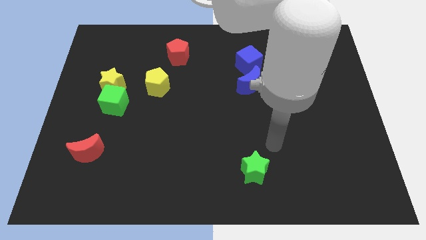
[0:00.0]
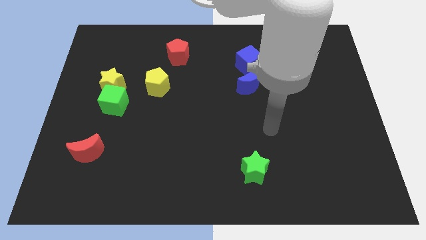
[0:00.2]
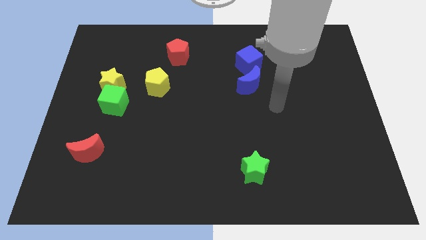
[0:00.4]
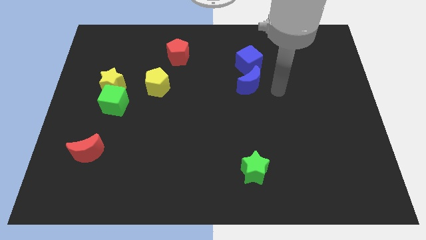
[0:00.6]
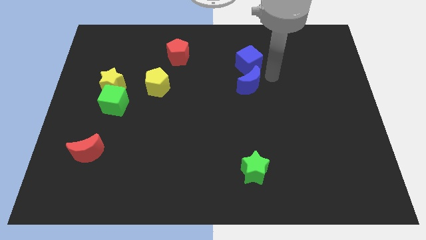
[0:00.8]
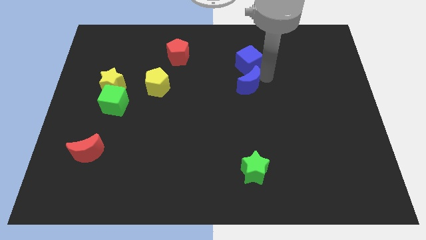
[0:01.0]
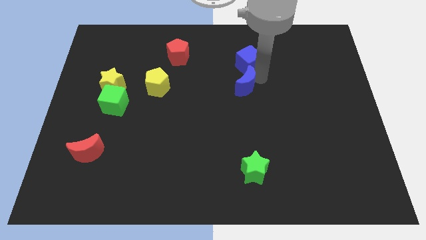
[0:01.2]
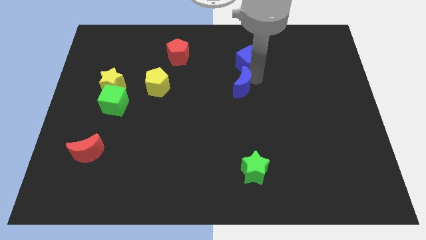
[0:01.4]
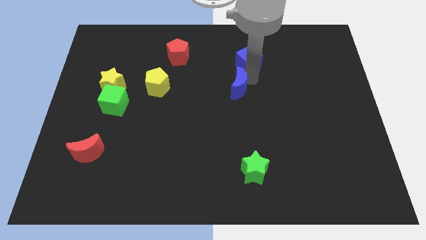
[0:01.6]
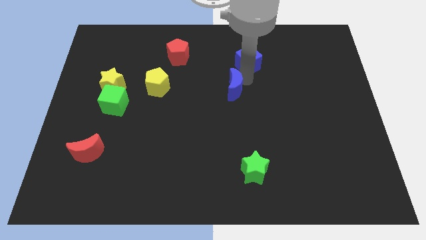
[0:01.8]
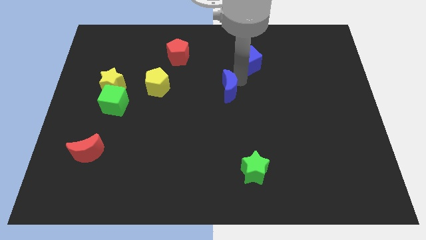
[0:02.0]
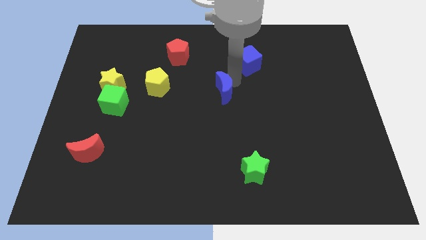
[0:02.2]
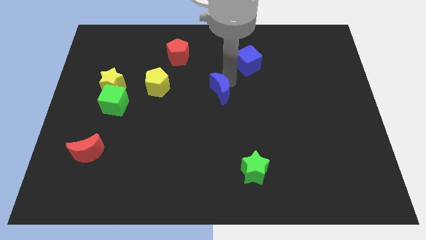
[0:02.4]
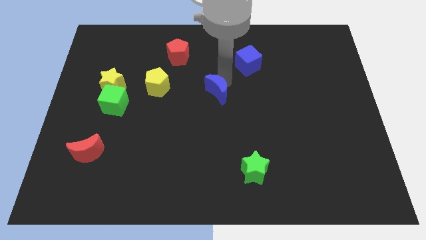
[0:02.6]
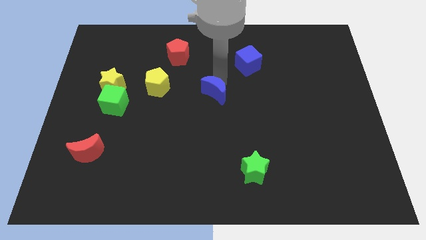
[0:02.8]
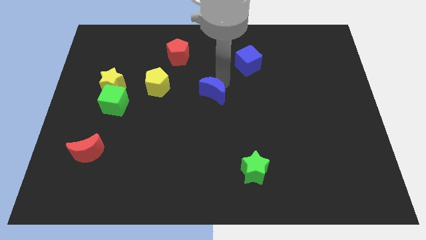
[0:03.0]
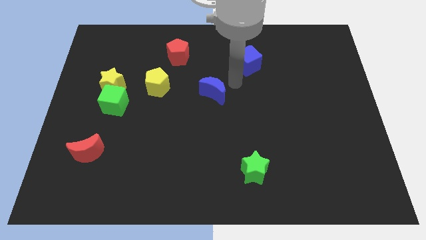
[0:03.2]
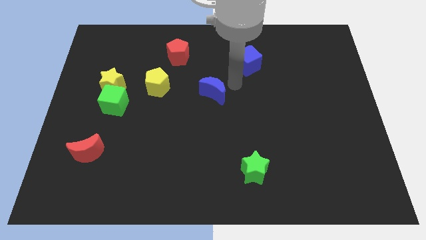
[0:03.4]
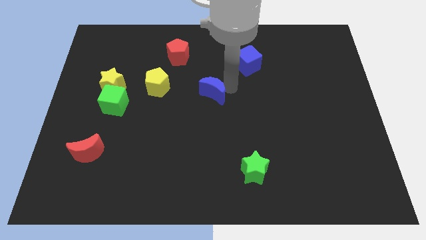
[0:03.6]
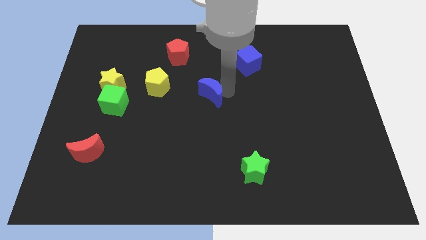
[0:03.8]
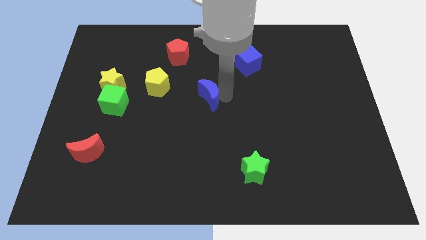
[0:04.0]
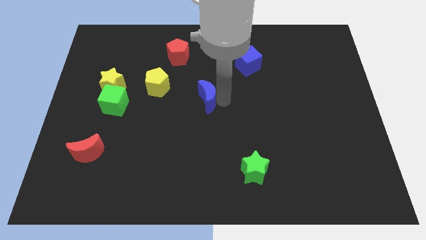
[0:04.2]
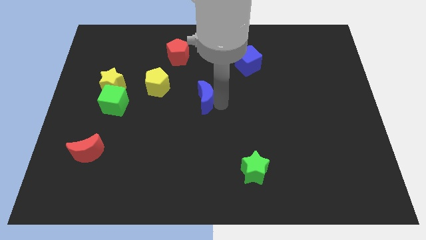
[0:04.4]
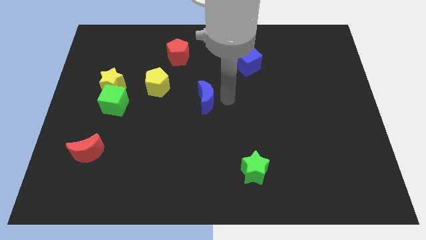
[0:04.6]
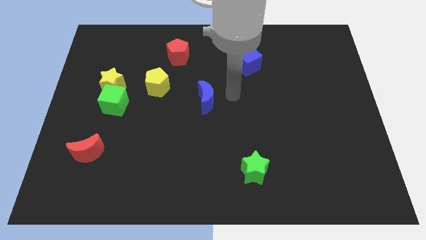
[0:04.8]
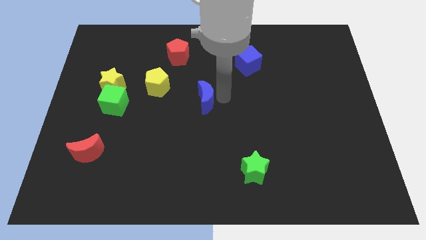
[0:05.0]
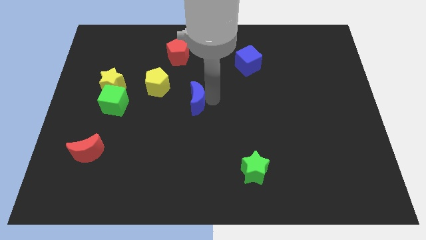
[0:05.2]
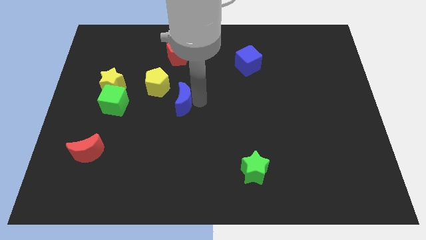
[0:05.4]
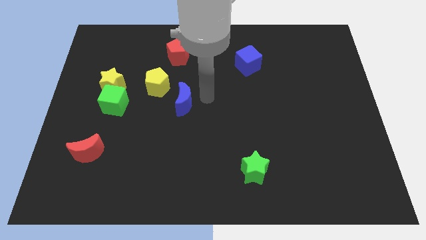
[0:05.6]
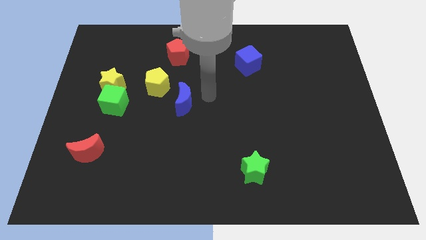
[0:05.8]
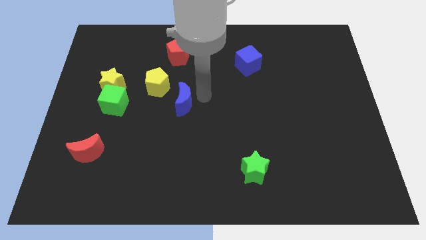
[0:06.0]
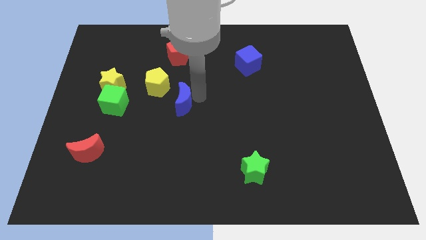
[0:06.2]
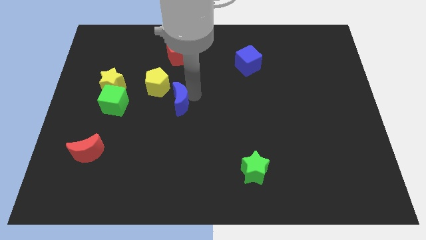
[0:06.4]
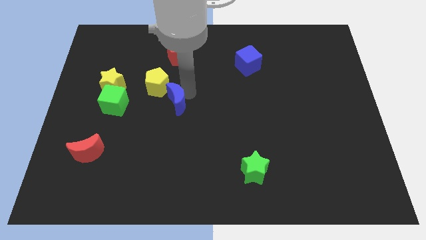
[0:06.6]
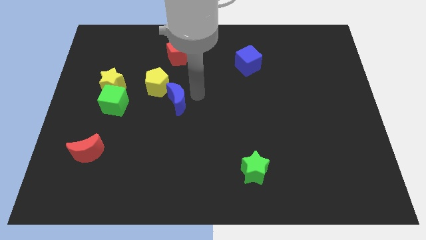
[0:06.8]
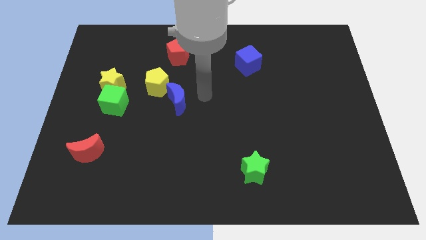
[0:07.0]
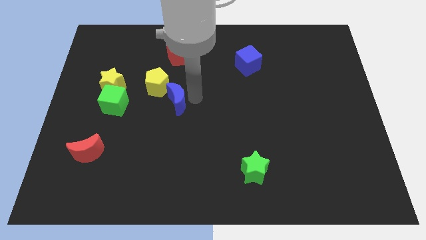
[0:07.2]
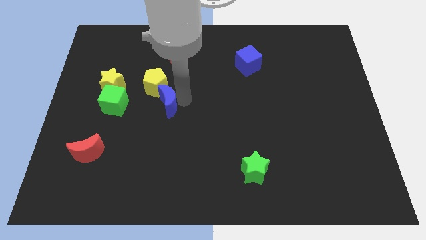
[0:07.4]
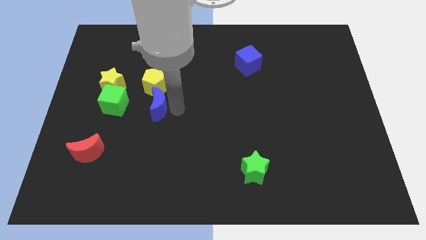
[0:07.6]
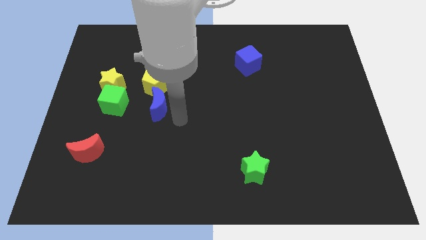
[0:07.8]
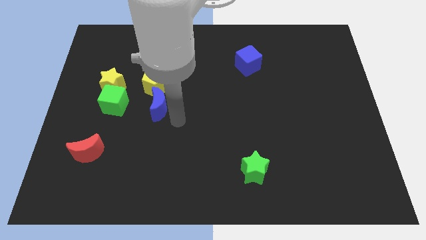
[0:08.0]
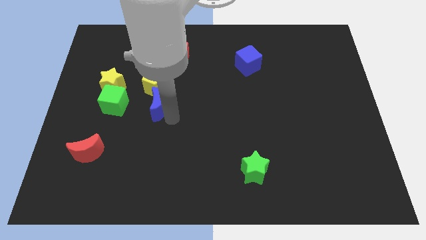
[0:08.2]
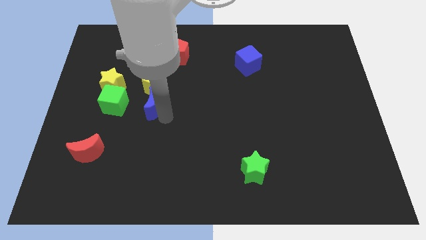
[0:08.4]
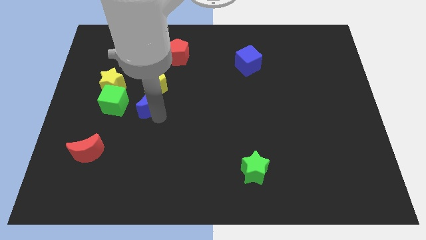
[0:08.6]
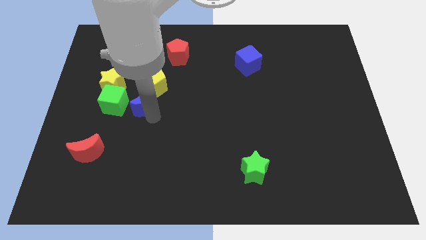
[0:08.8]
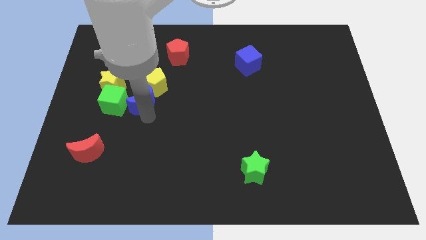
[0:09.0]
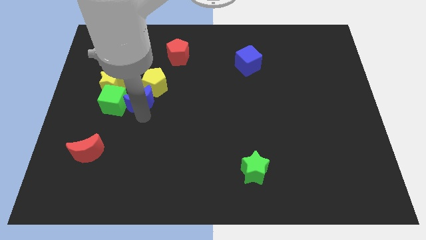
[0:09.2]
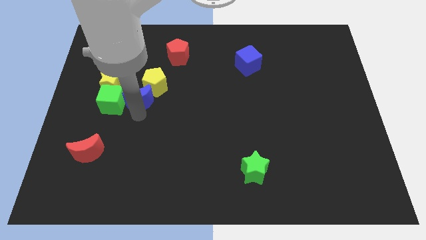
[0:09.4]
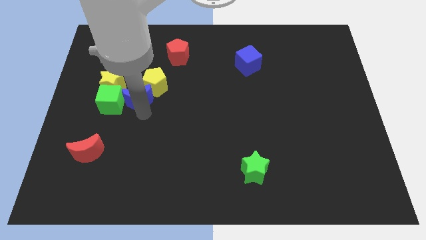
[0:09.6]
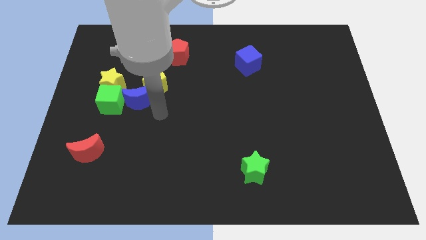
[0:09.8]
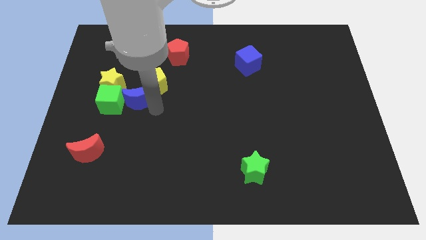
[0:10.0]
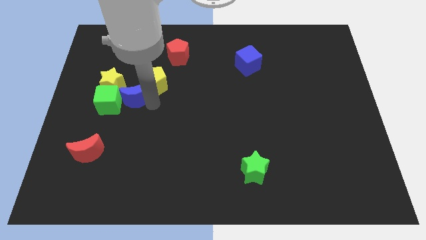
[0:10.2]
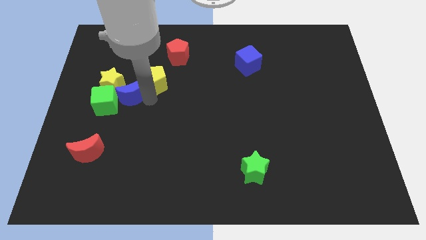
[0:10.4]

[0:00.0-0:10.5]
put the blue moon next to the yellow star

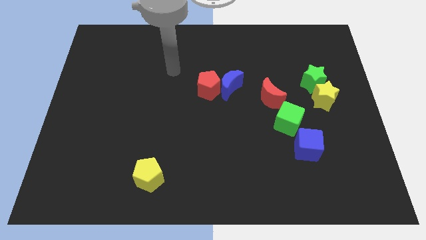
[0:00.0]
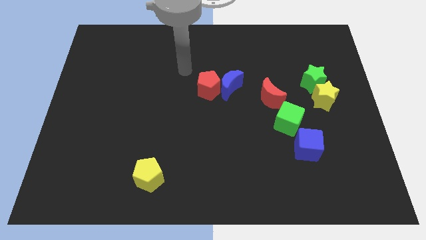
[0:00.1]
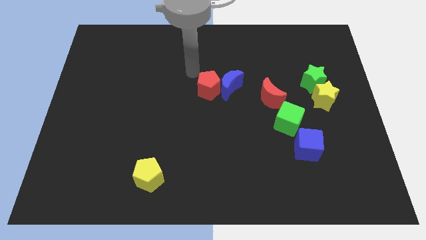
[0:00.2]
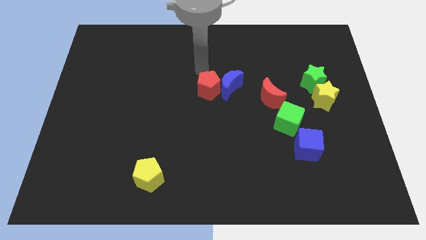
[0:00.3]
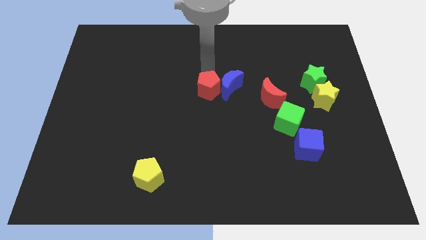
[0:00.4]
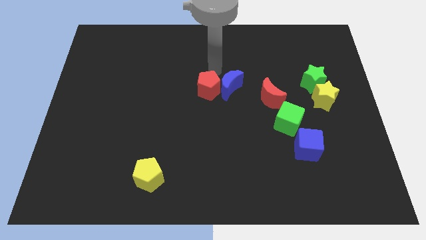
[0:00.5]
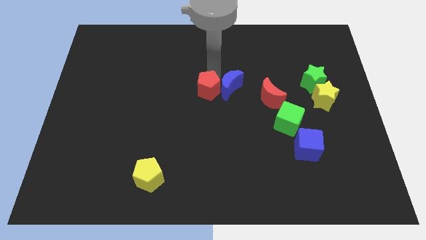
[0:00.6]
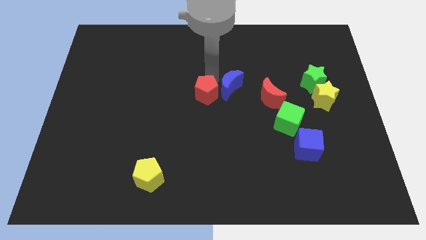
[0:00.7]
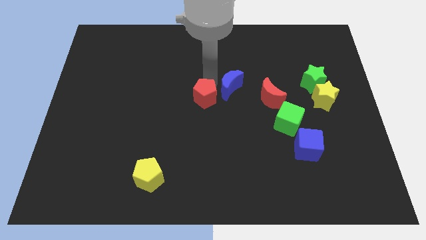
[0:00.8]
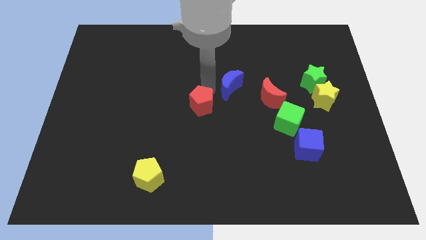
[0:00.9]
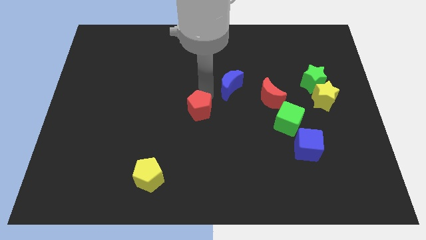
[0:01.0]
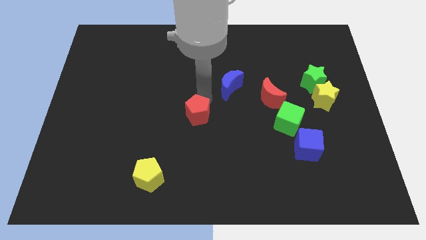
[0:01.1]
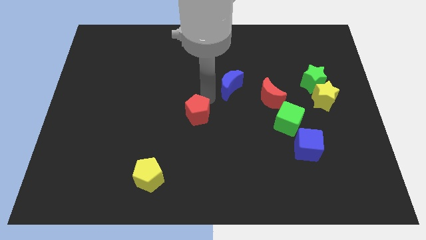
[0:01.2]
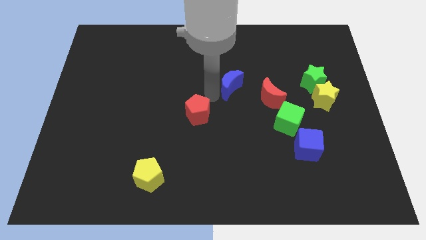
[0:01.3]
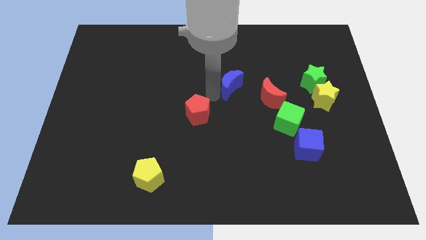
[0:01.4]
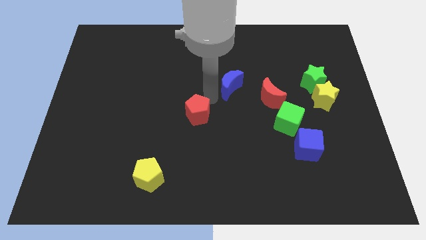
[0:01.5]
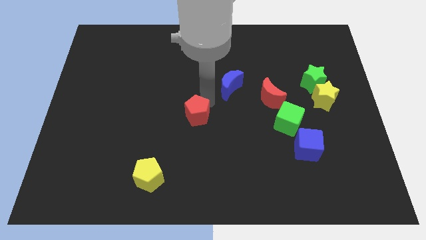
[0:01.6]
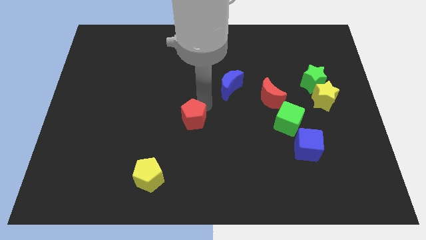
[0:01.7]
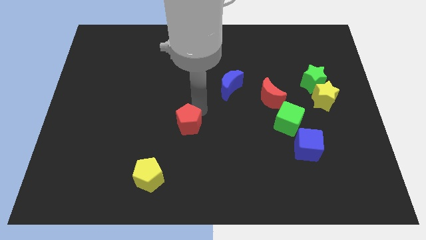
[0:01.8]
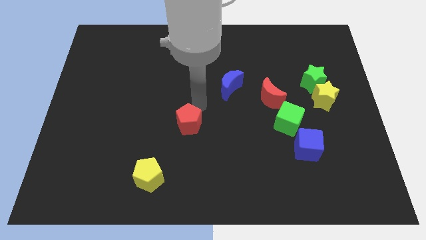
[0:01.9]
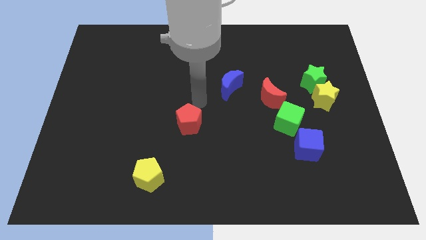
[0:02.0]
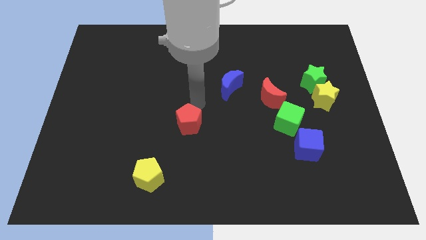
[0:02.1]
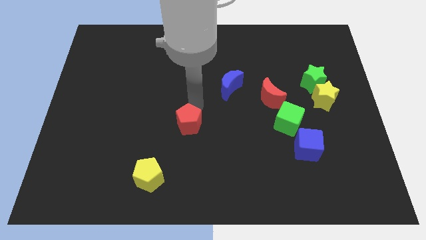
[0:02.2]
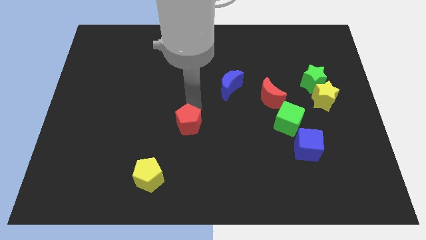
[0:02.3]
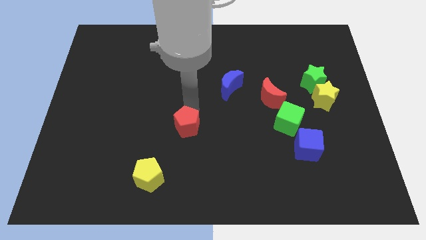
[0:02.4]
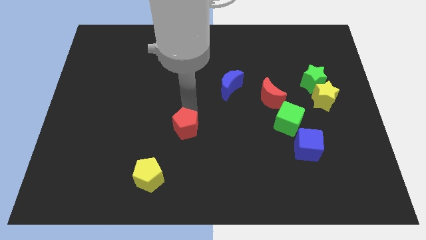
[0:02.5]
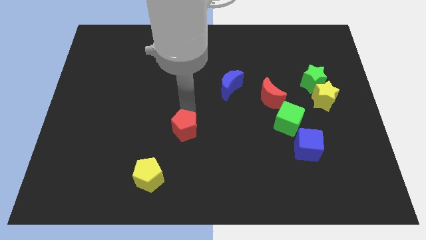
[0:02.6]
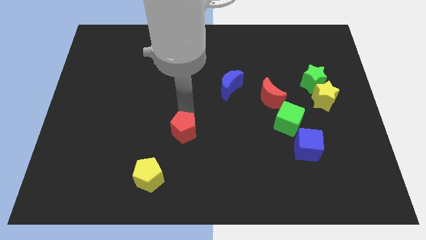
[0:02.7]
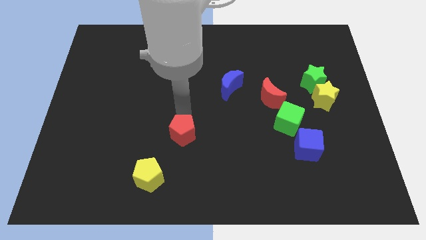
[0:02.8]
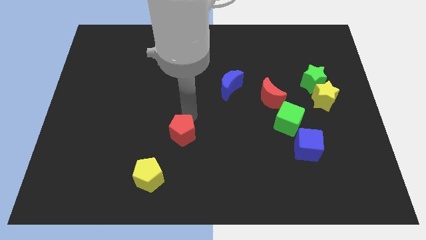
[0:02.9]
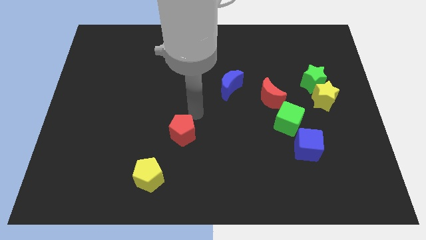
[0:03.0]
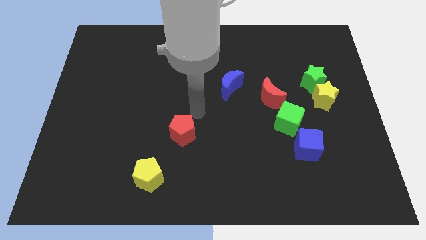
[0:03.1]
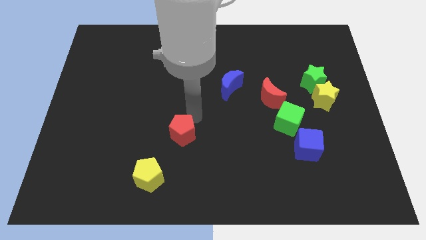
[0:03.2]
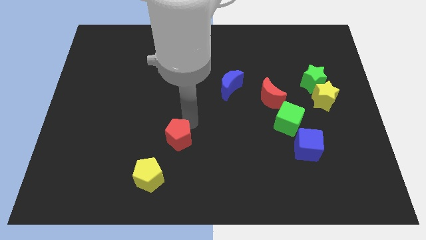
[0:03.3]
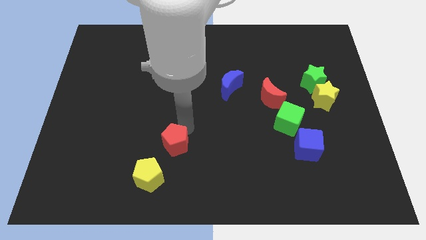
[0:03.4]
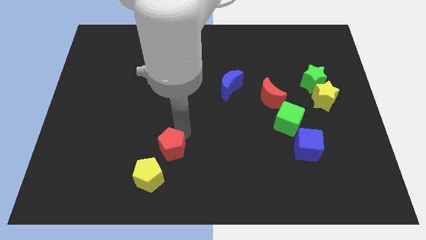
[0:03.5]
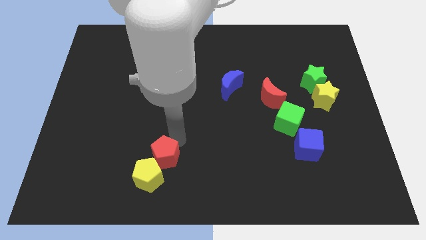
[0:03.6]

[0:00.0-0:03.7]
push the red pentagon to the yellow pentagon
